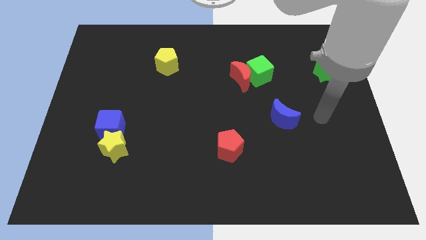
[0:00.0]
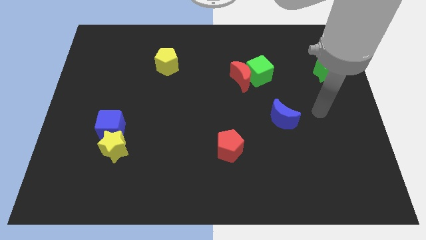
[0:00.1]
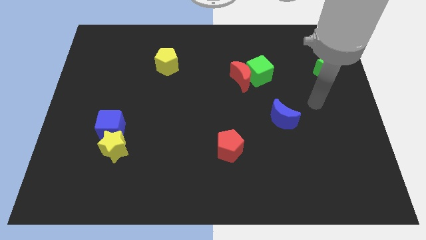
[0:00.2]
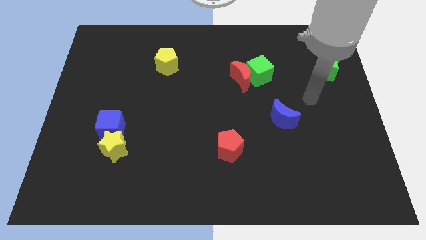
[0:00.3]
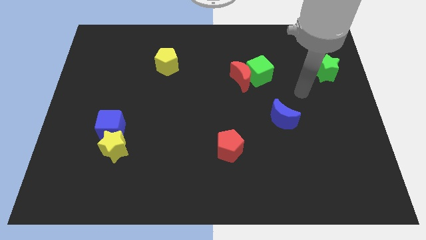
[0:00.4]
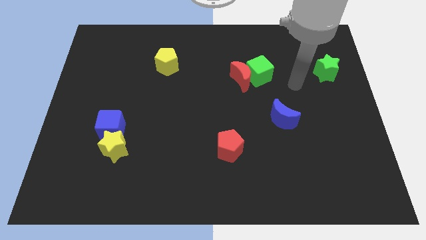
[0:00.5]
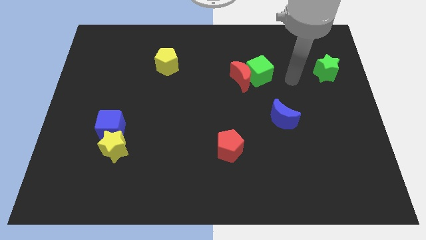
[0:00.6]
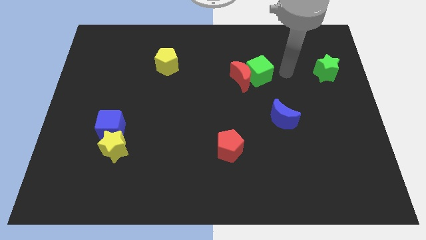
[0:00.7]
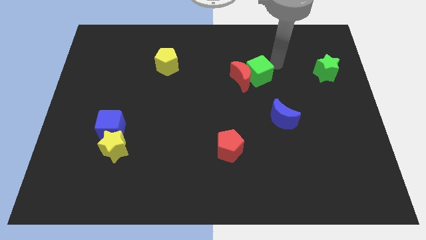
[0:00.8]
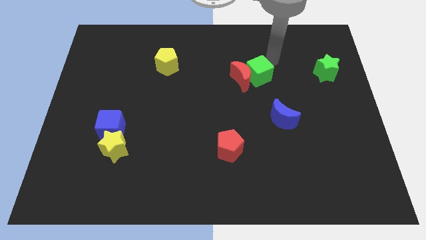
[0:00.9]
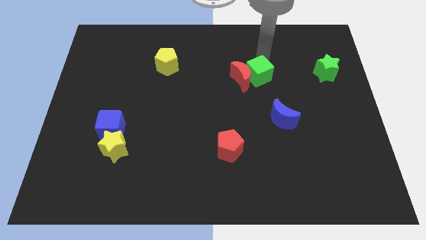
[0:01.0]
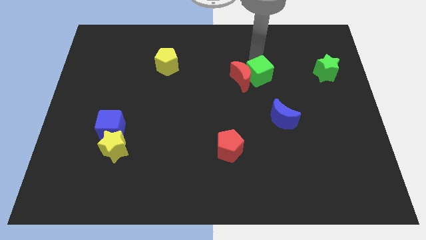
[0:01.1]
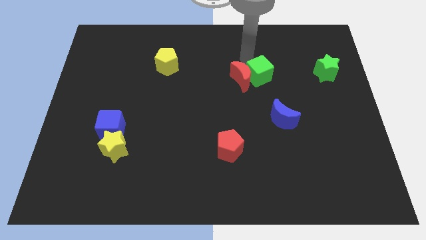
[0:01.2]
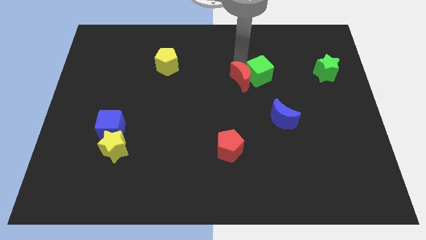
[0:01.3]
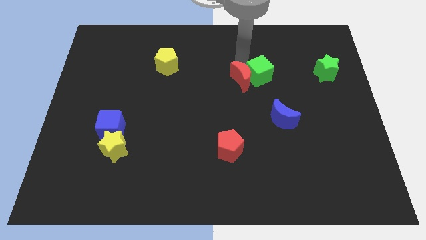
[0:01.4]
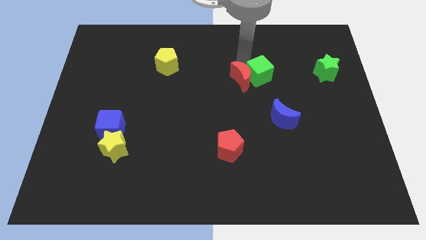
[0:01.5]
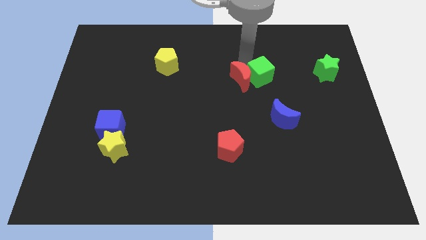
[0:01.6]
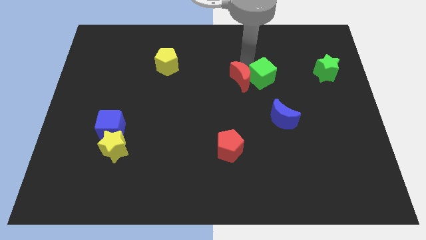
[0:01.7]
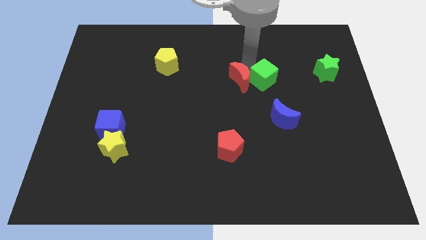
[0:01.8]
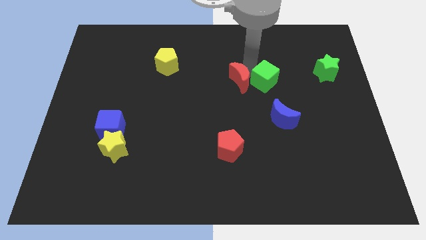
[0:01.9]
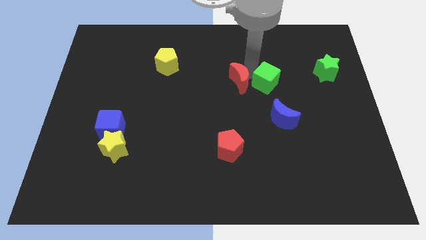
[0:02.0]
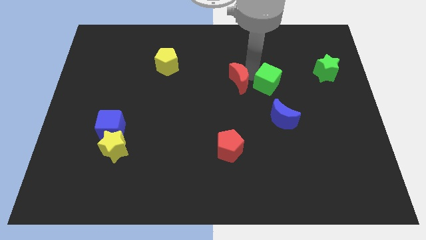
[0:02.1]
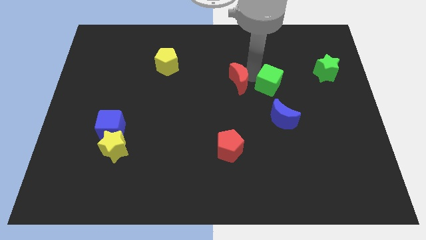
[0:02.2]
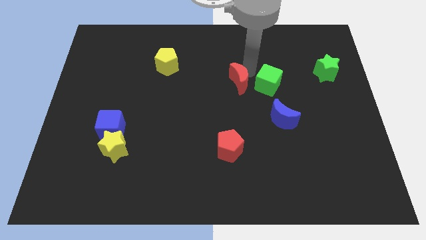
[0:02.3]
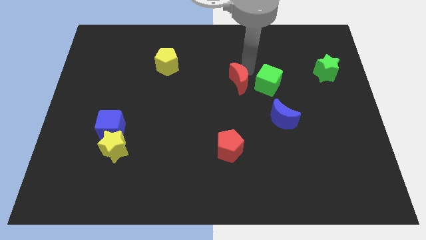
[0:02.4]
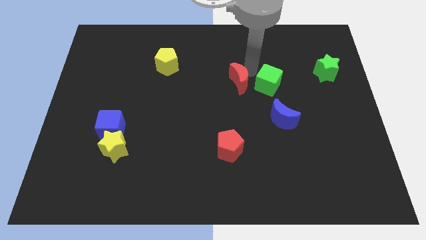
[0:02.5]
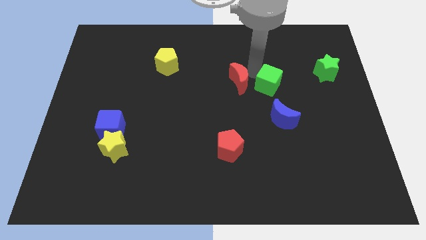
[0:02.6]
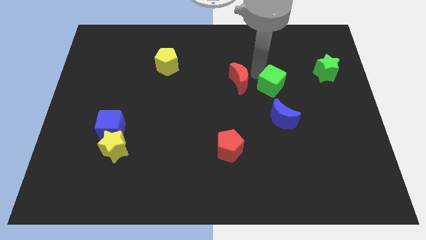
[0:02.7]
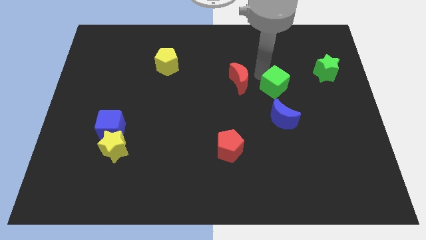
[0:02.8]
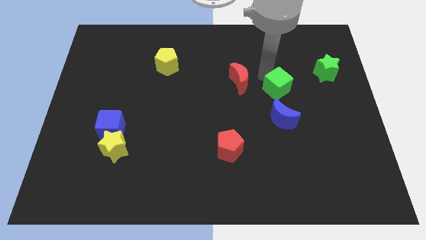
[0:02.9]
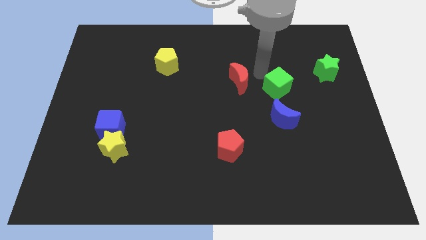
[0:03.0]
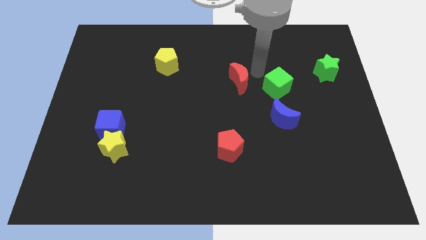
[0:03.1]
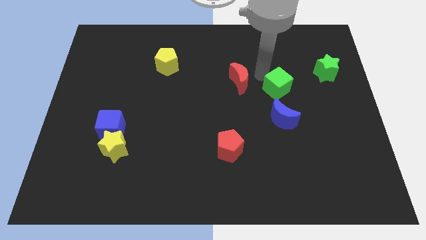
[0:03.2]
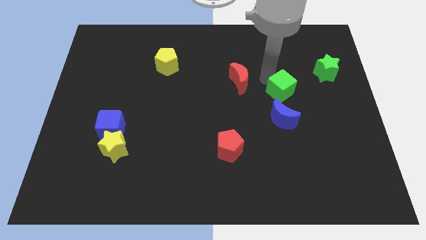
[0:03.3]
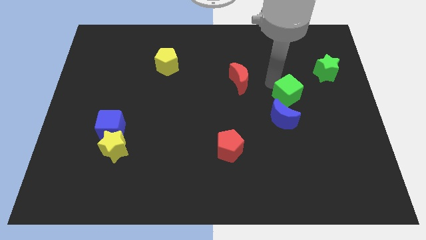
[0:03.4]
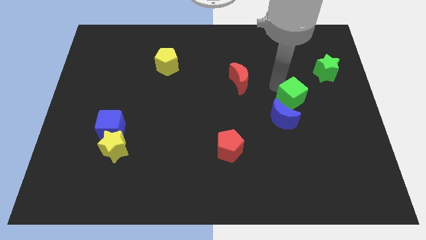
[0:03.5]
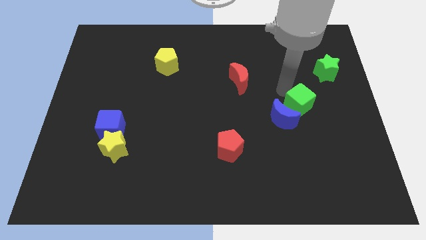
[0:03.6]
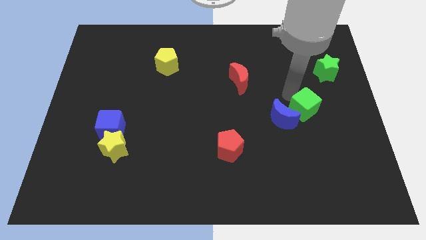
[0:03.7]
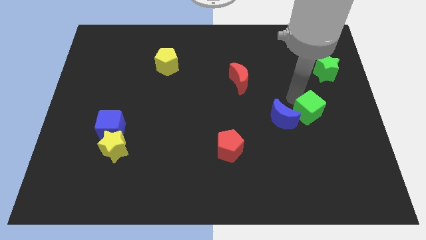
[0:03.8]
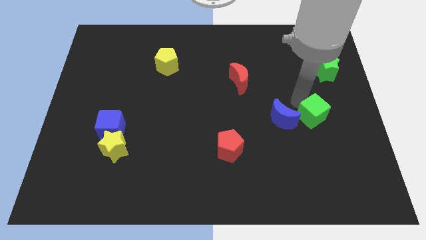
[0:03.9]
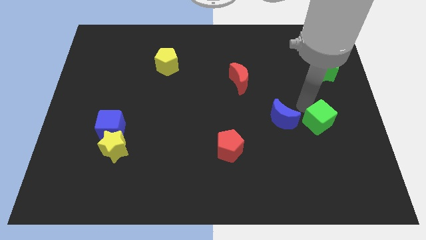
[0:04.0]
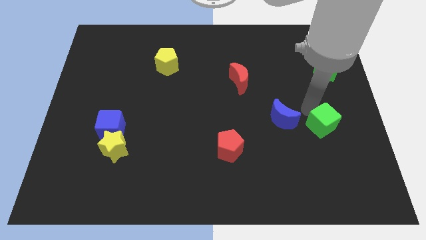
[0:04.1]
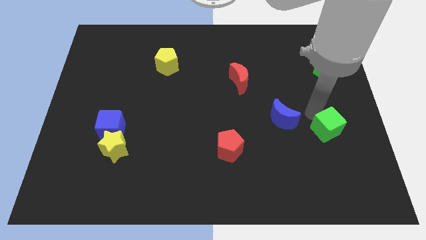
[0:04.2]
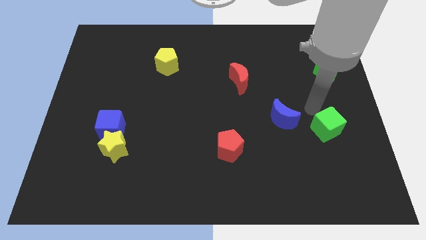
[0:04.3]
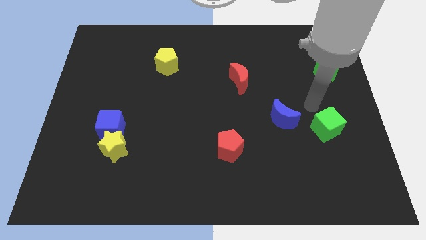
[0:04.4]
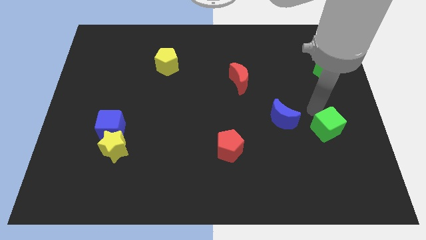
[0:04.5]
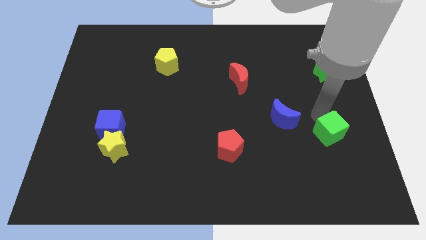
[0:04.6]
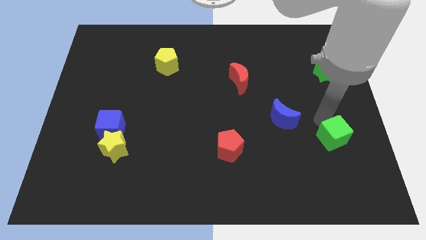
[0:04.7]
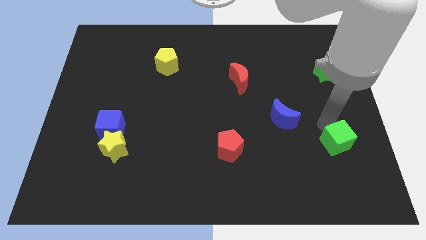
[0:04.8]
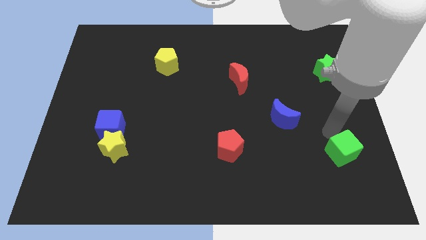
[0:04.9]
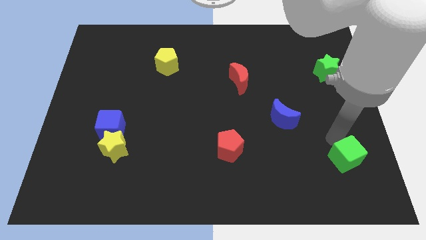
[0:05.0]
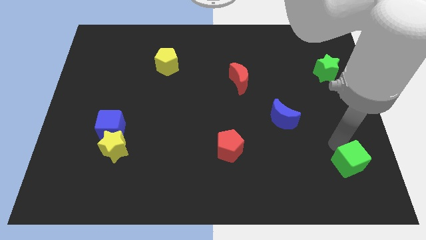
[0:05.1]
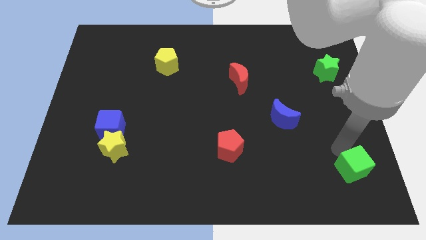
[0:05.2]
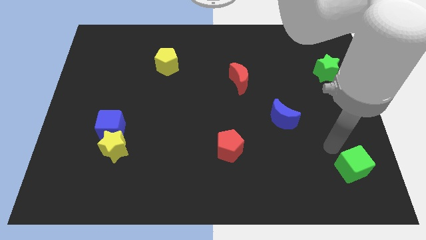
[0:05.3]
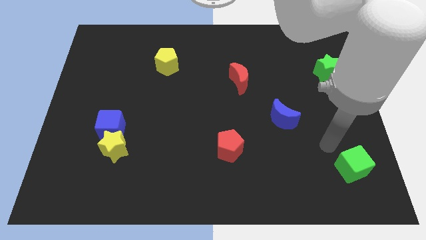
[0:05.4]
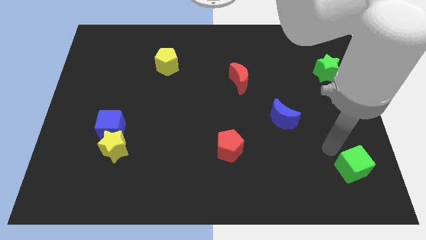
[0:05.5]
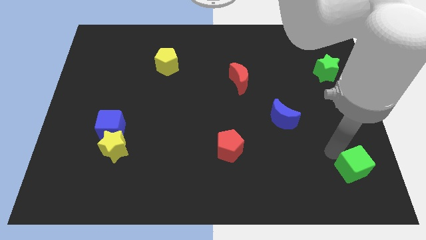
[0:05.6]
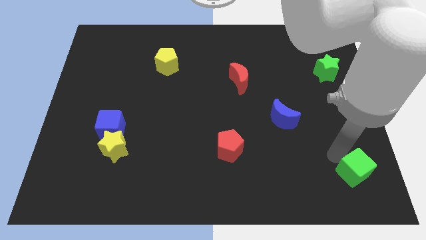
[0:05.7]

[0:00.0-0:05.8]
slide the green cube to the bottom right corner
